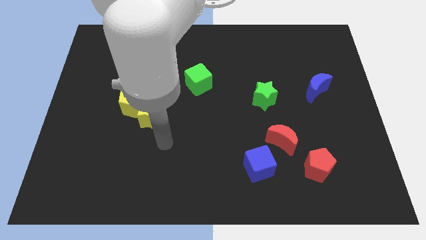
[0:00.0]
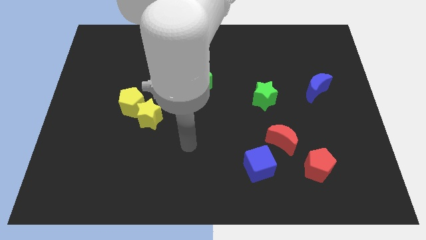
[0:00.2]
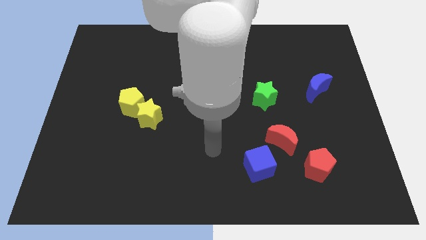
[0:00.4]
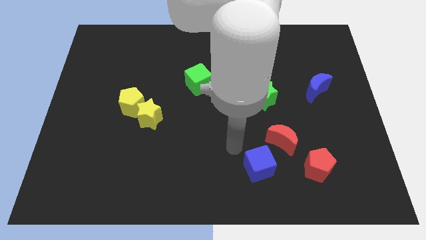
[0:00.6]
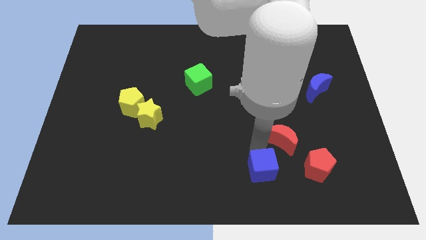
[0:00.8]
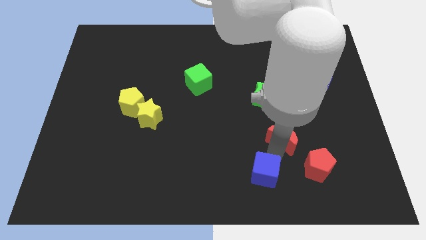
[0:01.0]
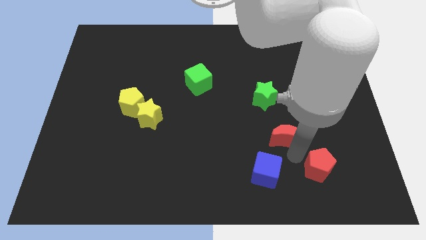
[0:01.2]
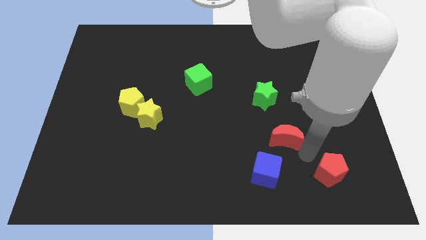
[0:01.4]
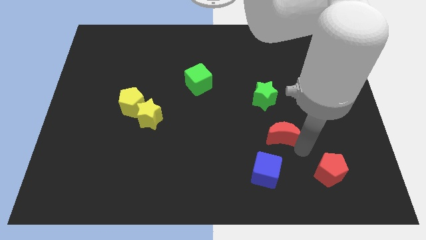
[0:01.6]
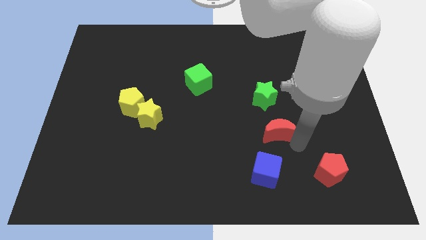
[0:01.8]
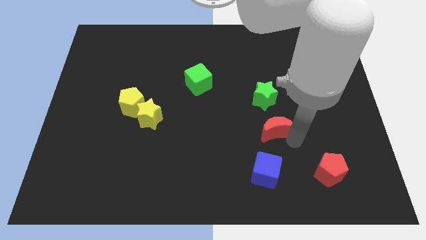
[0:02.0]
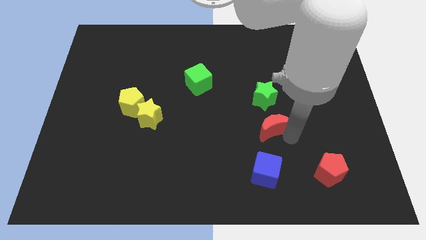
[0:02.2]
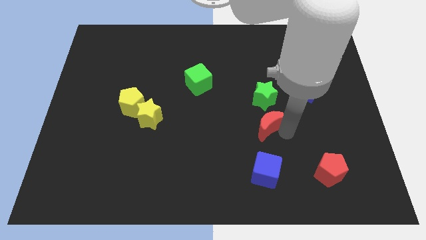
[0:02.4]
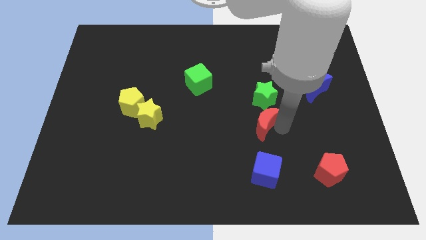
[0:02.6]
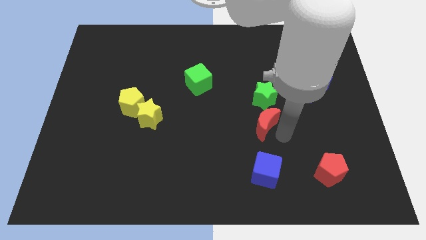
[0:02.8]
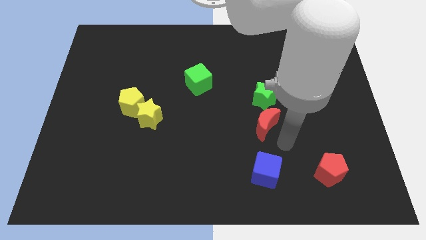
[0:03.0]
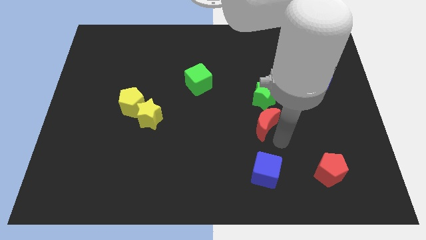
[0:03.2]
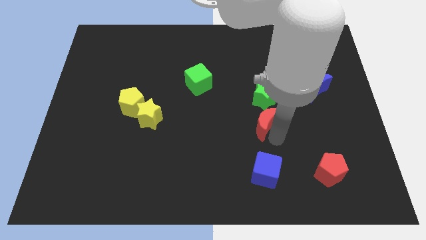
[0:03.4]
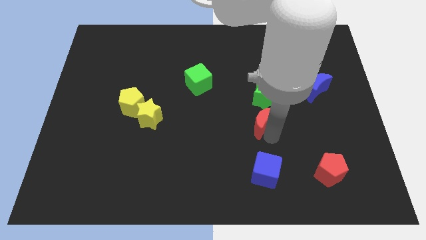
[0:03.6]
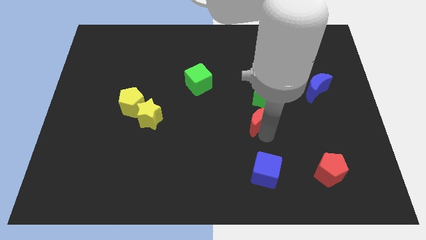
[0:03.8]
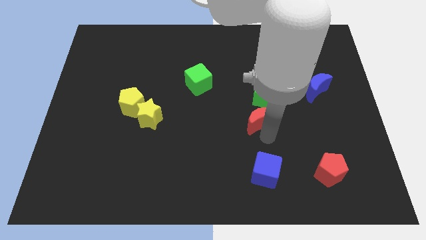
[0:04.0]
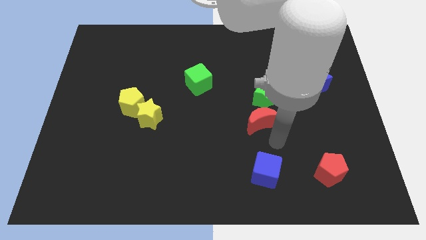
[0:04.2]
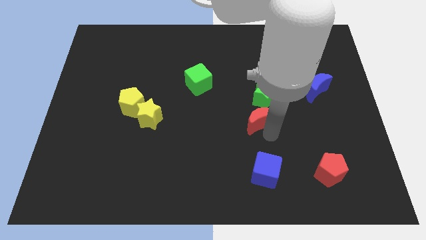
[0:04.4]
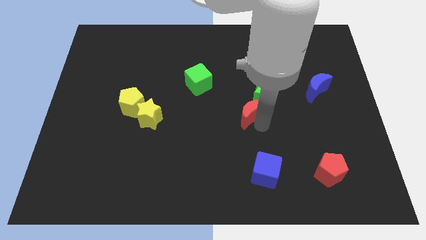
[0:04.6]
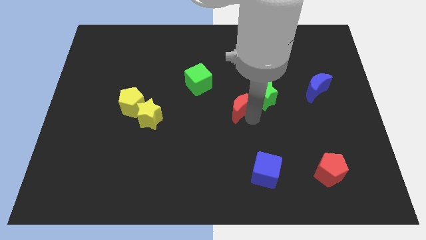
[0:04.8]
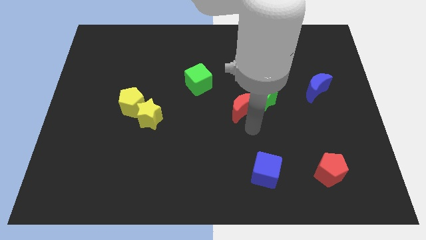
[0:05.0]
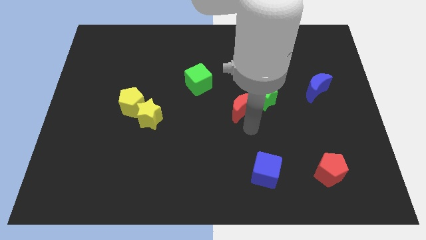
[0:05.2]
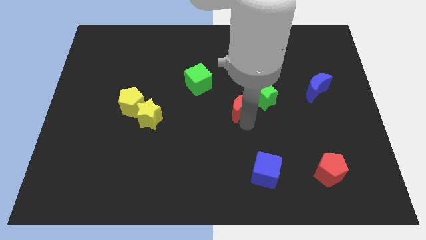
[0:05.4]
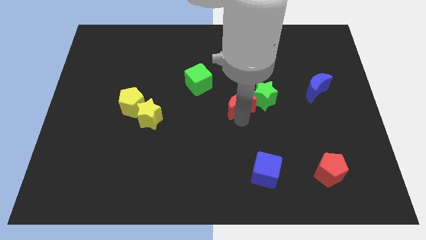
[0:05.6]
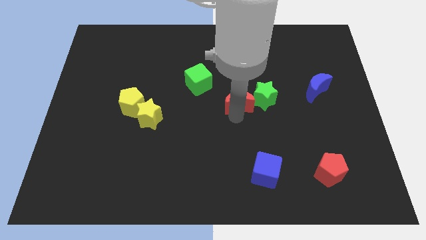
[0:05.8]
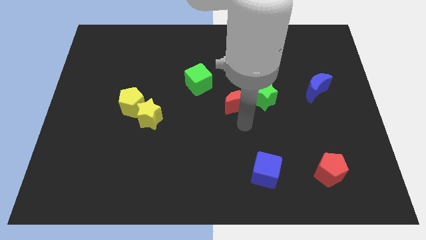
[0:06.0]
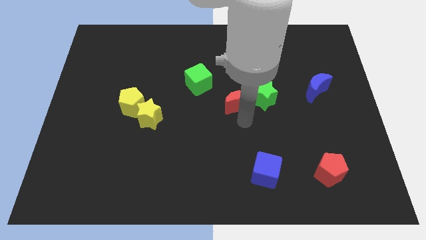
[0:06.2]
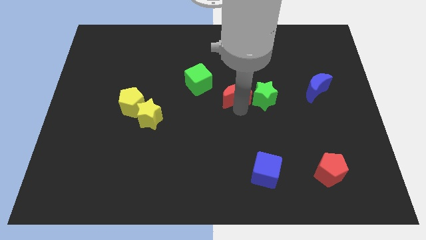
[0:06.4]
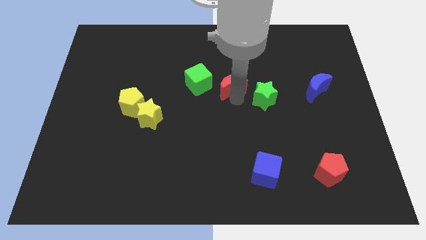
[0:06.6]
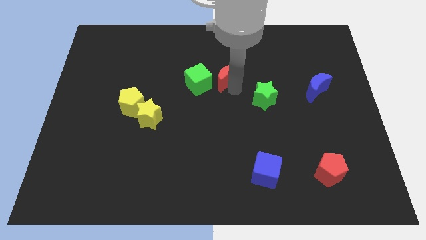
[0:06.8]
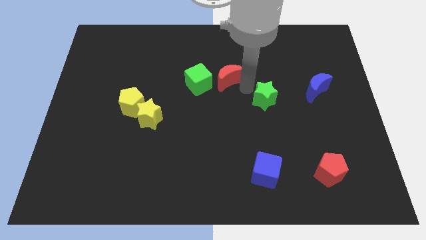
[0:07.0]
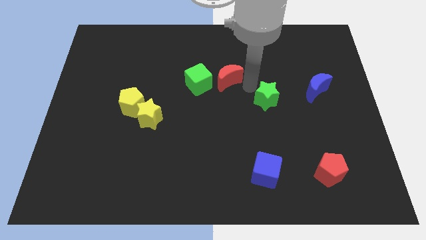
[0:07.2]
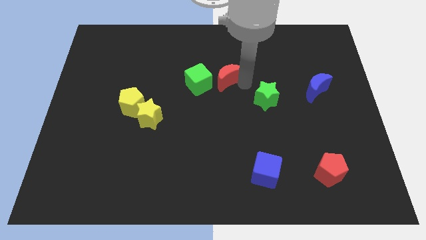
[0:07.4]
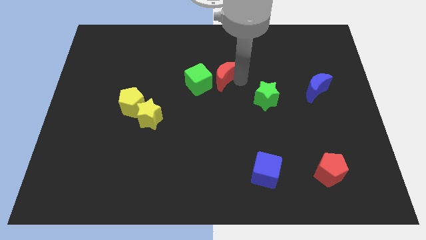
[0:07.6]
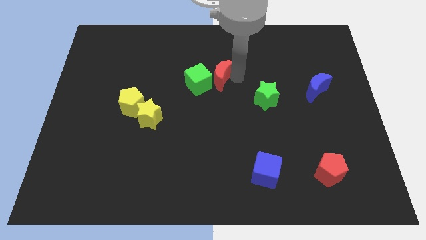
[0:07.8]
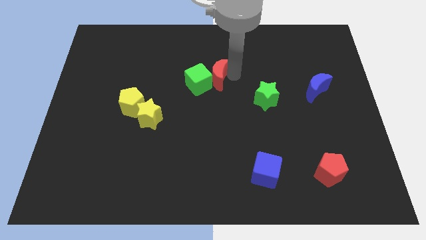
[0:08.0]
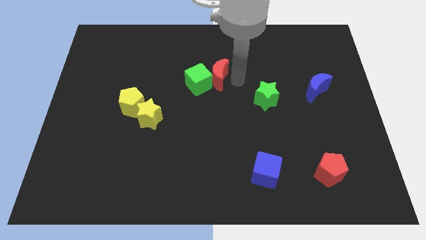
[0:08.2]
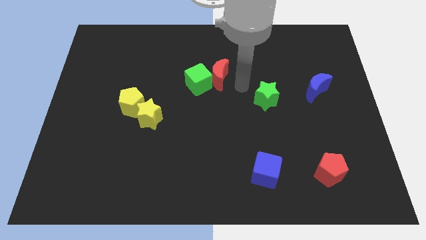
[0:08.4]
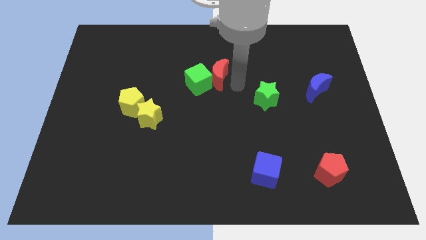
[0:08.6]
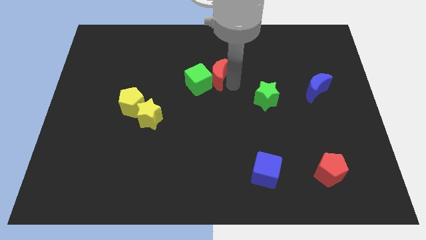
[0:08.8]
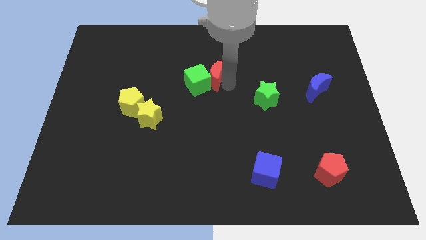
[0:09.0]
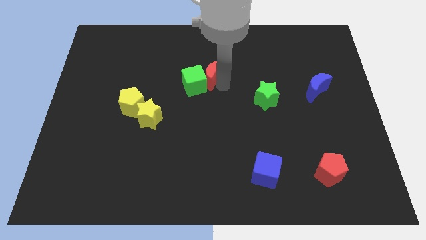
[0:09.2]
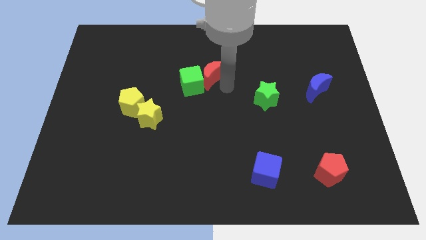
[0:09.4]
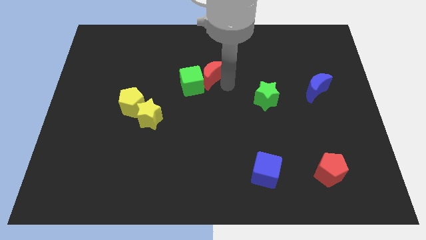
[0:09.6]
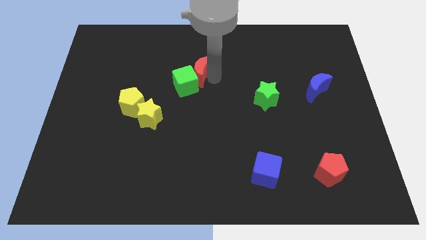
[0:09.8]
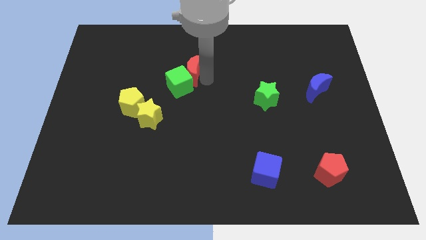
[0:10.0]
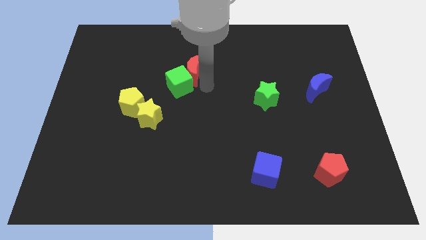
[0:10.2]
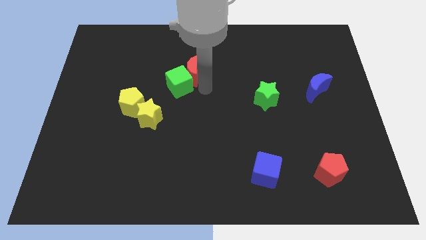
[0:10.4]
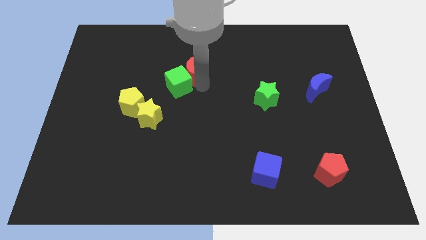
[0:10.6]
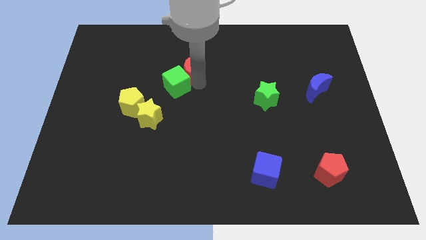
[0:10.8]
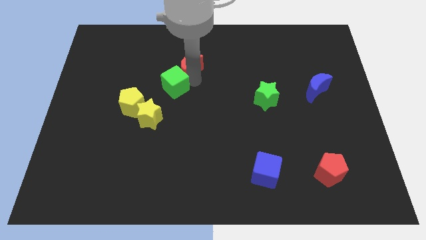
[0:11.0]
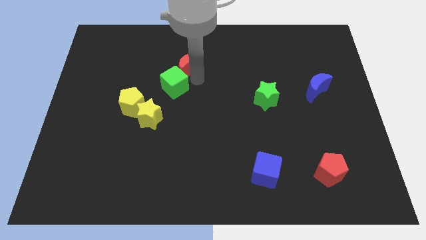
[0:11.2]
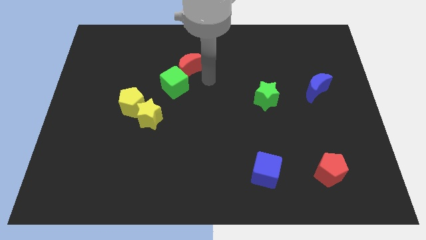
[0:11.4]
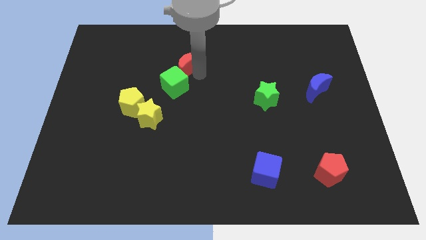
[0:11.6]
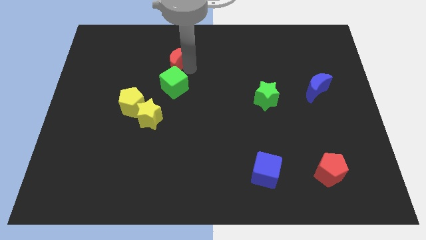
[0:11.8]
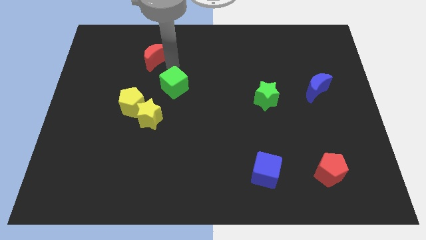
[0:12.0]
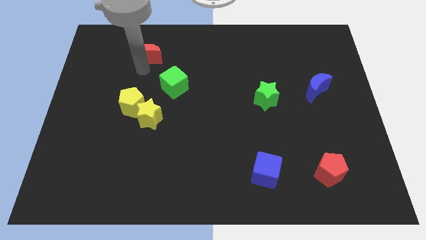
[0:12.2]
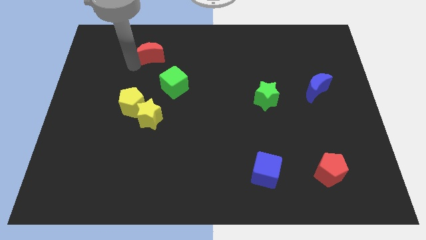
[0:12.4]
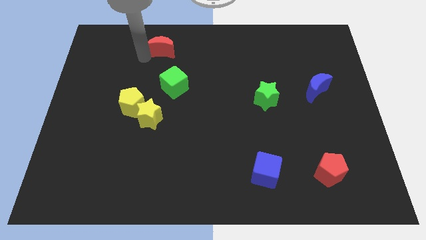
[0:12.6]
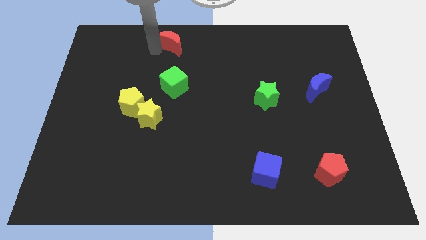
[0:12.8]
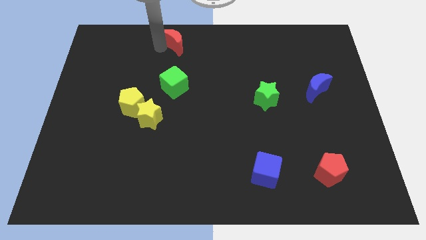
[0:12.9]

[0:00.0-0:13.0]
slide the red moon to the top side
